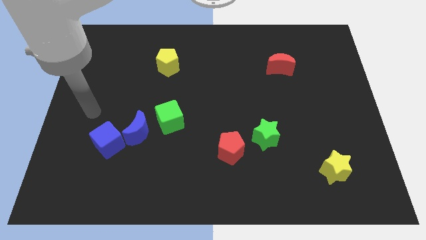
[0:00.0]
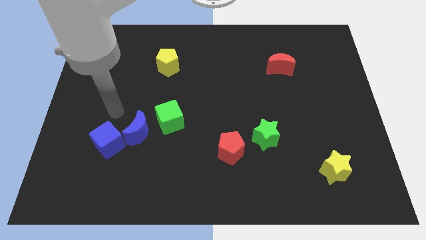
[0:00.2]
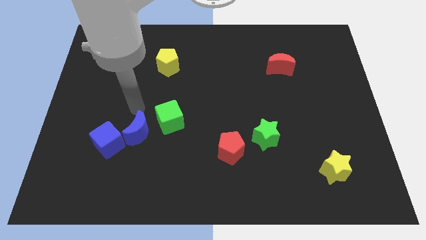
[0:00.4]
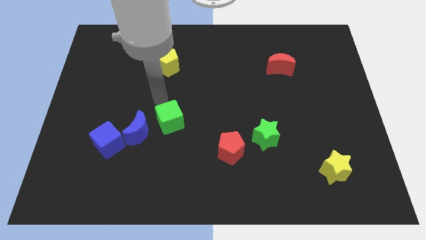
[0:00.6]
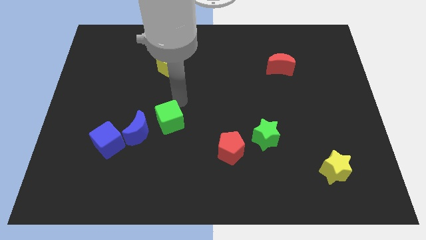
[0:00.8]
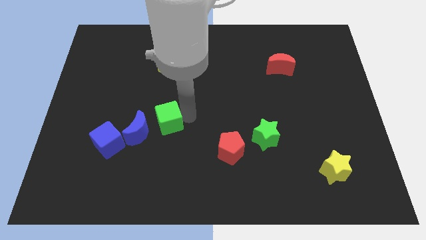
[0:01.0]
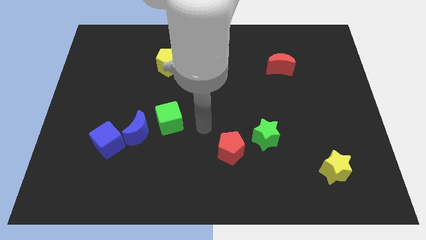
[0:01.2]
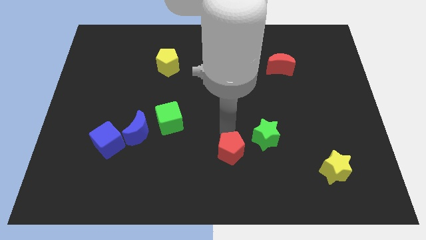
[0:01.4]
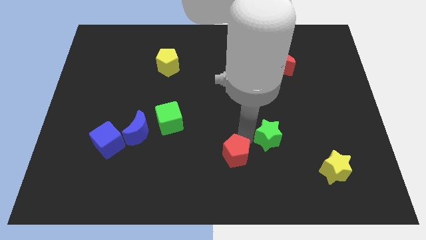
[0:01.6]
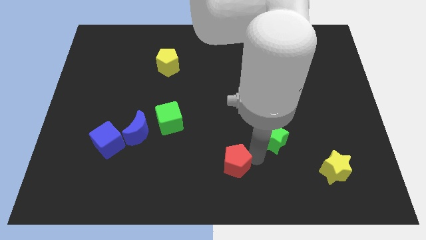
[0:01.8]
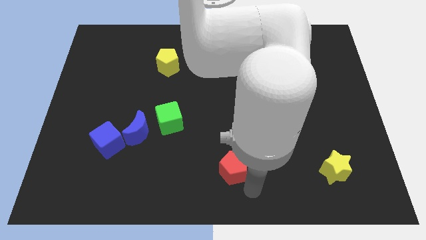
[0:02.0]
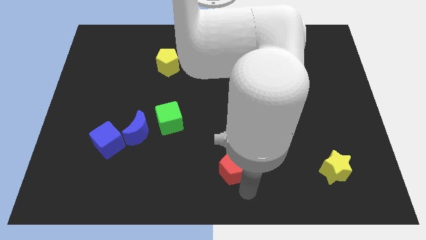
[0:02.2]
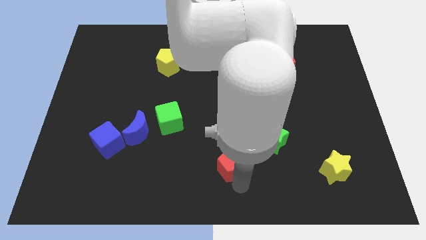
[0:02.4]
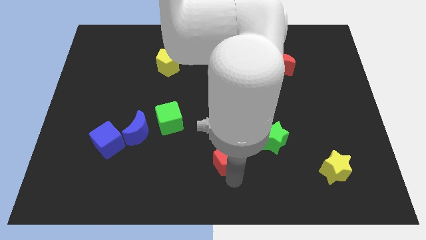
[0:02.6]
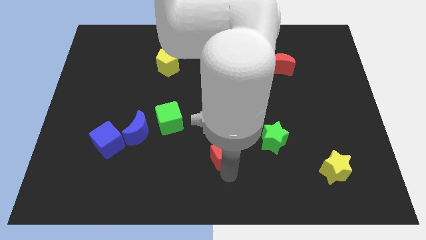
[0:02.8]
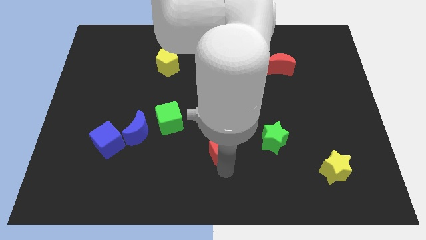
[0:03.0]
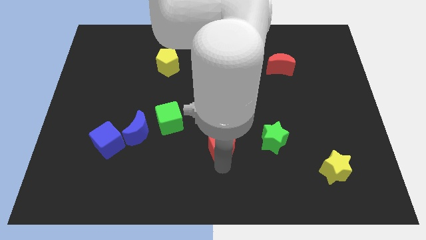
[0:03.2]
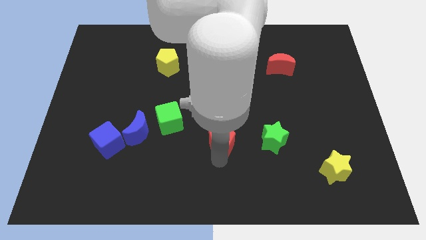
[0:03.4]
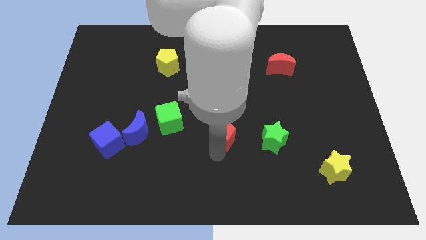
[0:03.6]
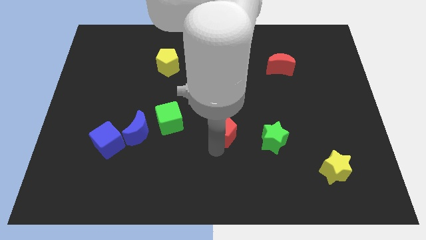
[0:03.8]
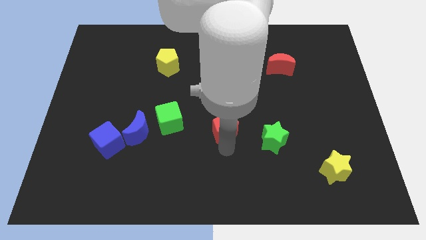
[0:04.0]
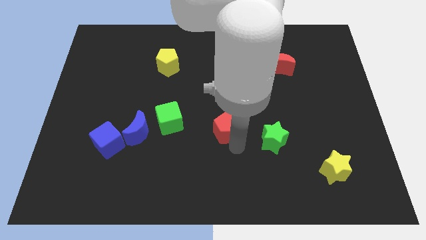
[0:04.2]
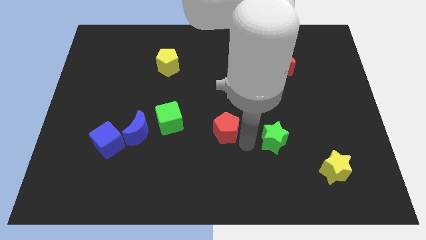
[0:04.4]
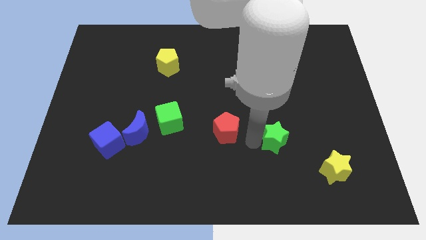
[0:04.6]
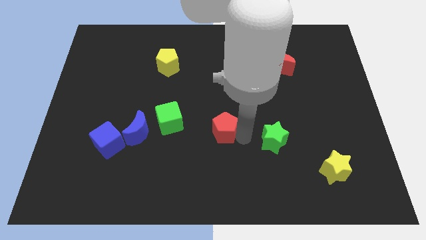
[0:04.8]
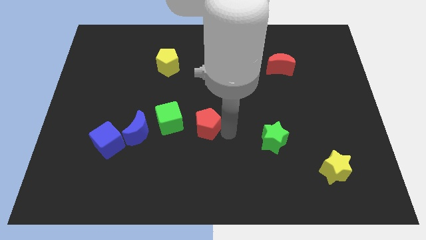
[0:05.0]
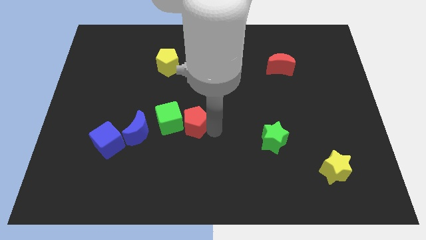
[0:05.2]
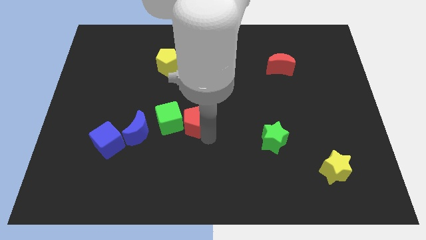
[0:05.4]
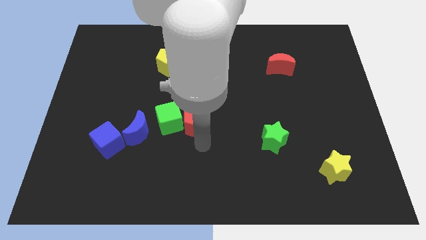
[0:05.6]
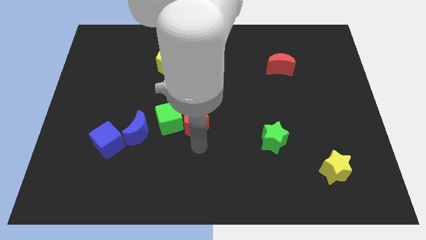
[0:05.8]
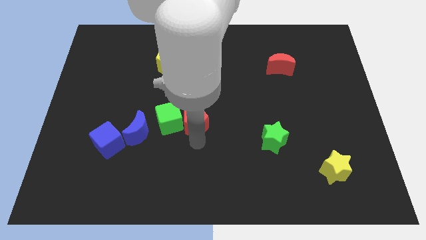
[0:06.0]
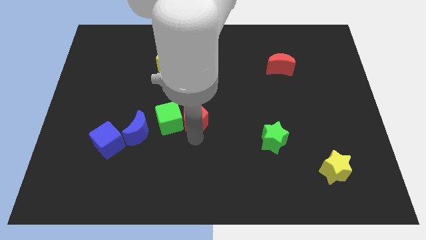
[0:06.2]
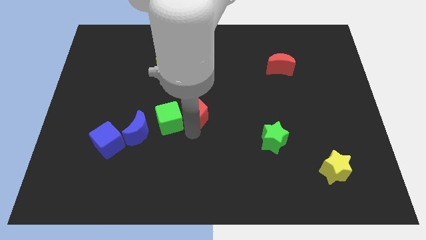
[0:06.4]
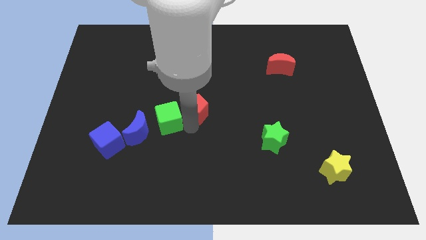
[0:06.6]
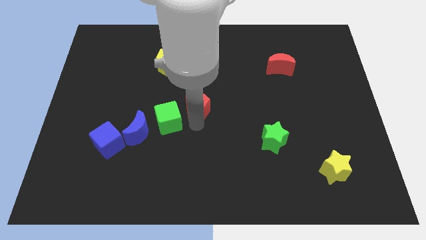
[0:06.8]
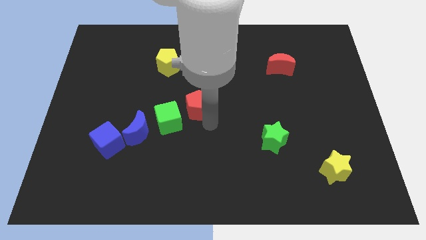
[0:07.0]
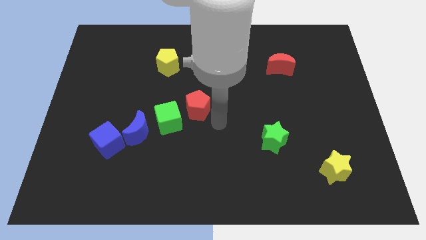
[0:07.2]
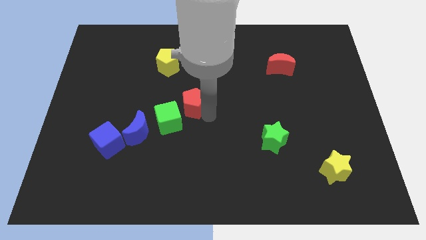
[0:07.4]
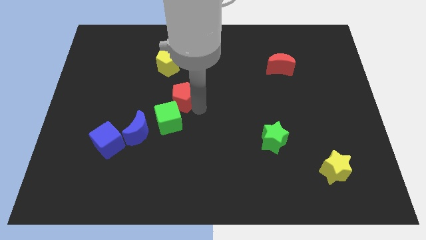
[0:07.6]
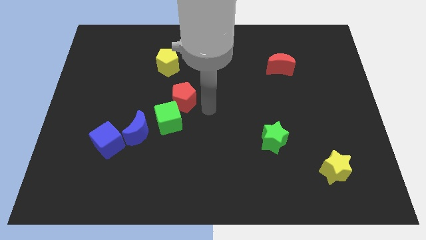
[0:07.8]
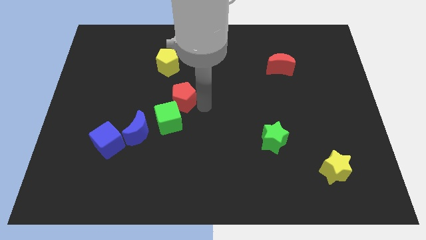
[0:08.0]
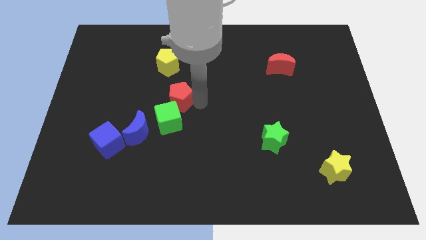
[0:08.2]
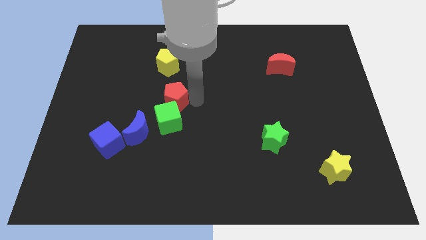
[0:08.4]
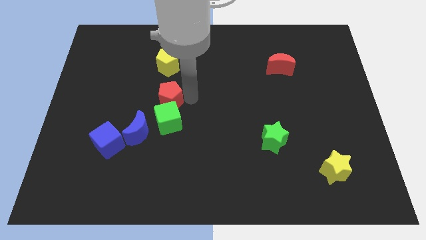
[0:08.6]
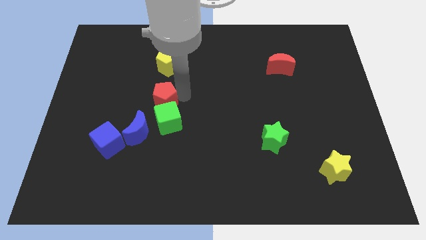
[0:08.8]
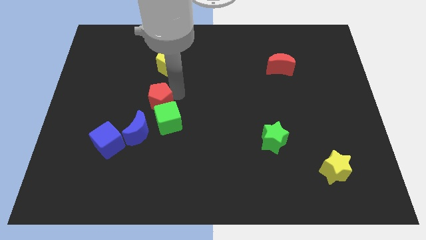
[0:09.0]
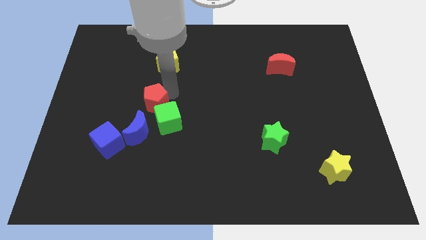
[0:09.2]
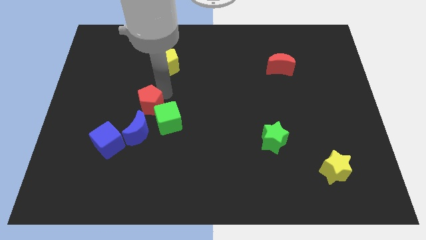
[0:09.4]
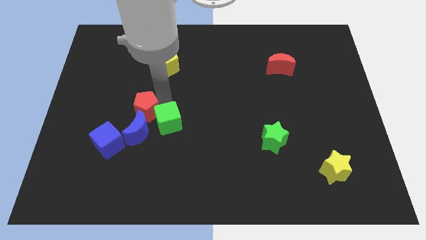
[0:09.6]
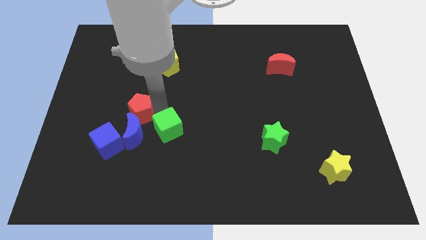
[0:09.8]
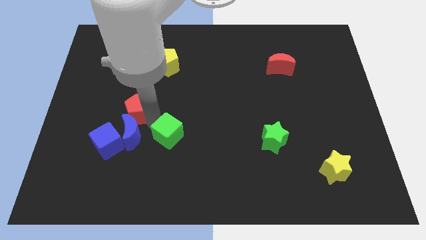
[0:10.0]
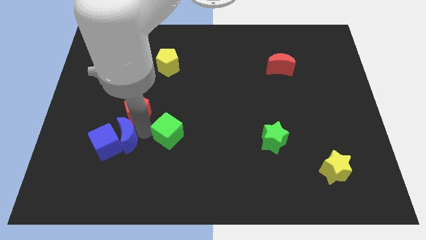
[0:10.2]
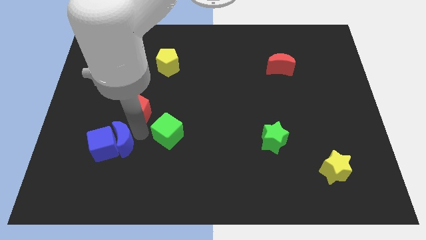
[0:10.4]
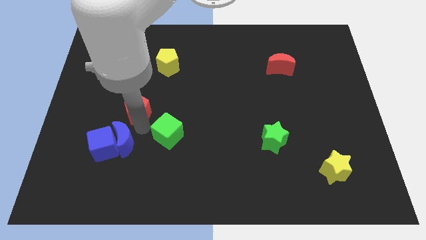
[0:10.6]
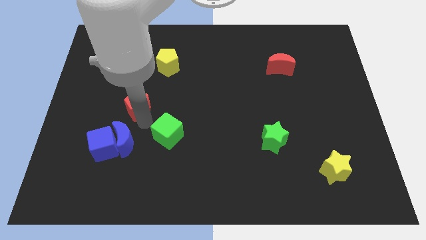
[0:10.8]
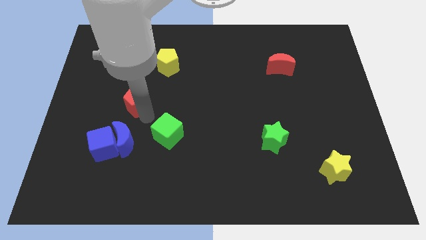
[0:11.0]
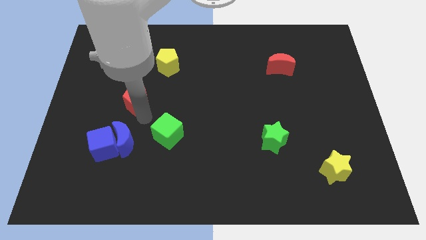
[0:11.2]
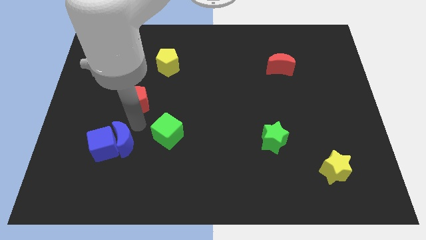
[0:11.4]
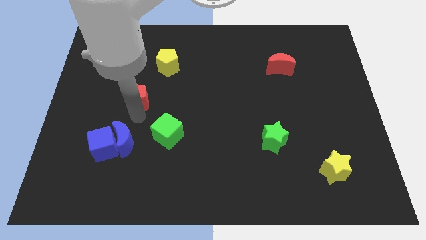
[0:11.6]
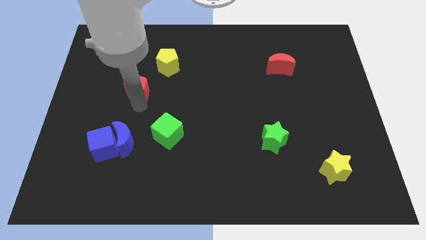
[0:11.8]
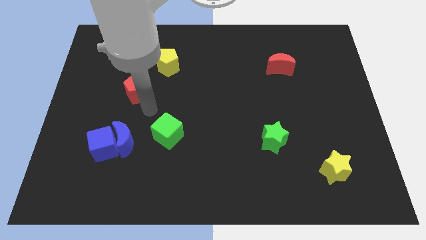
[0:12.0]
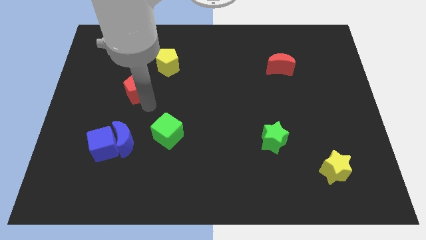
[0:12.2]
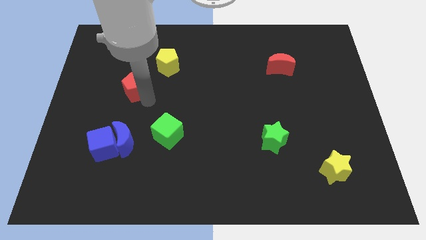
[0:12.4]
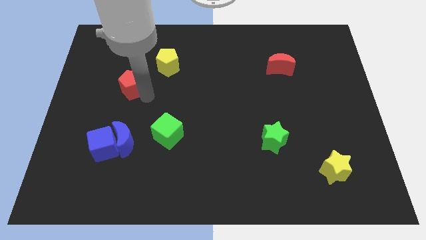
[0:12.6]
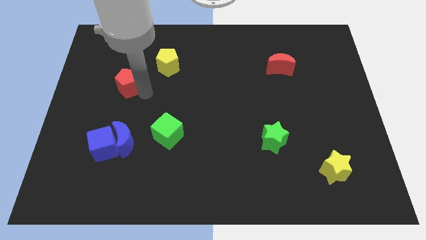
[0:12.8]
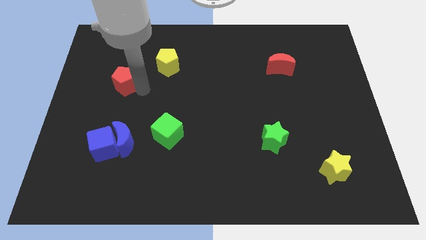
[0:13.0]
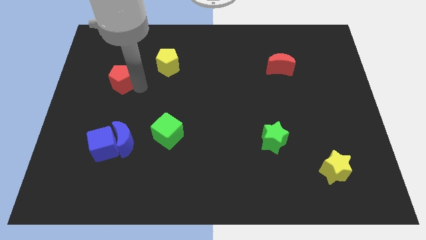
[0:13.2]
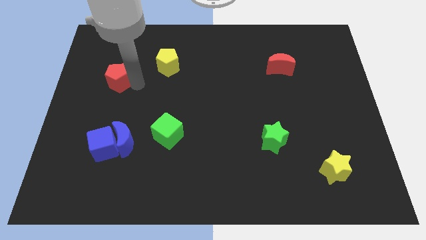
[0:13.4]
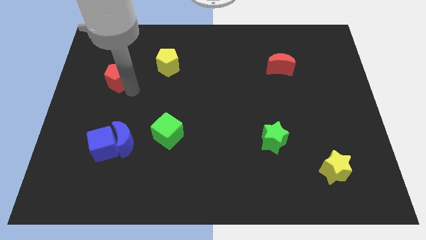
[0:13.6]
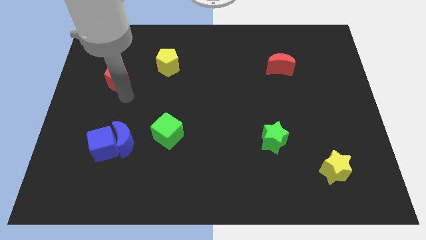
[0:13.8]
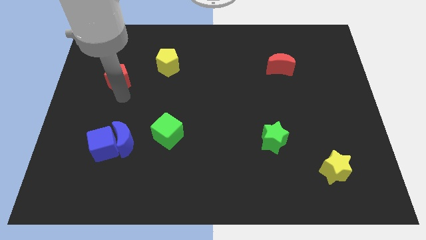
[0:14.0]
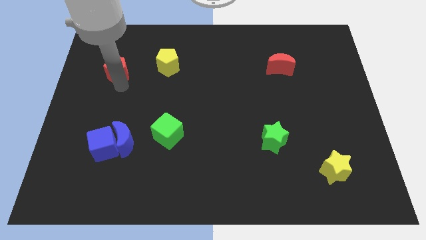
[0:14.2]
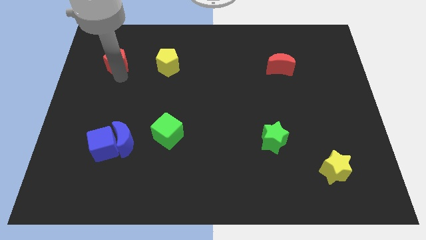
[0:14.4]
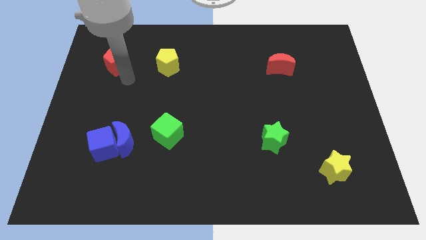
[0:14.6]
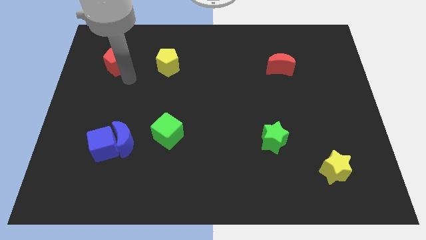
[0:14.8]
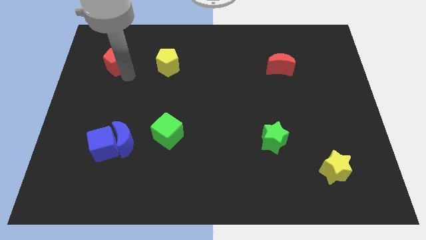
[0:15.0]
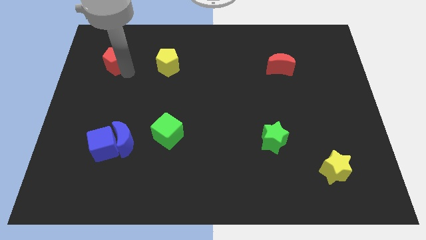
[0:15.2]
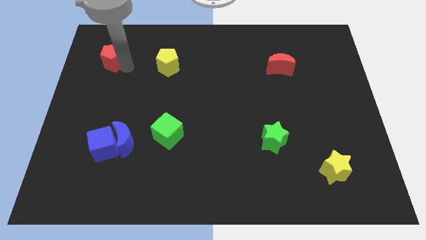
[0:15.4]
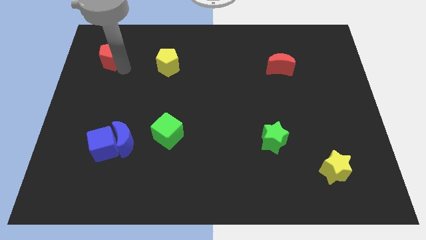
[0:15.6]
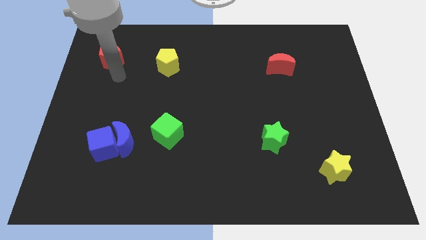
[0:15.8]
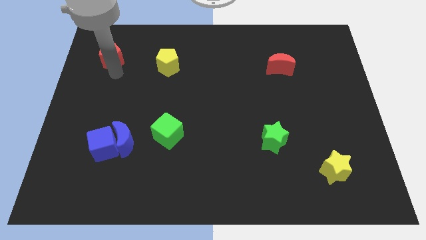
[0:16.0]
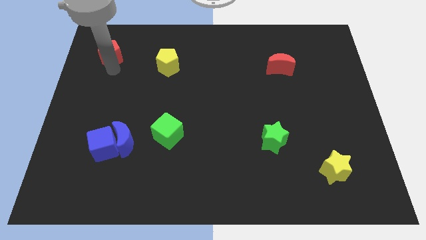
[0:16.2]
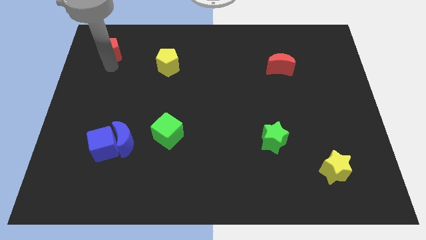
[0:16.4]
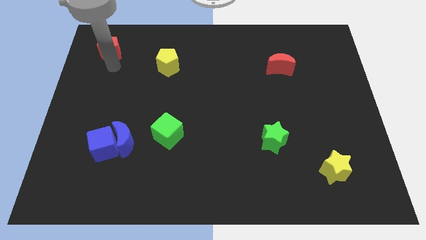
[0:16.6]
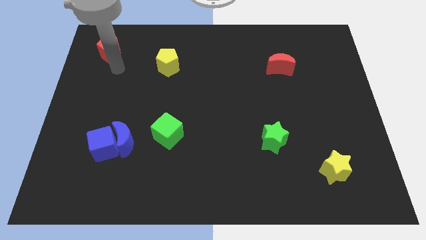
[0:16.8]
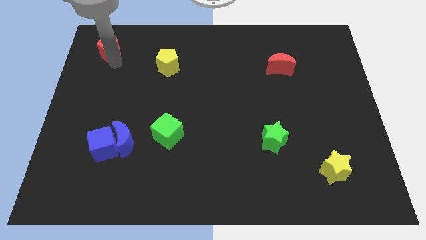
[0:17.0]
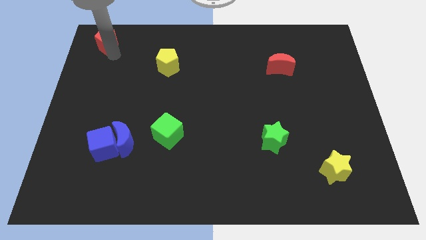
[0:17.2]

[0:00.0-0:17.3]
put the red pentagon to the top left of the board
